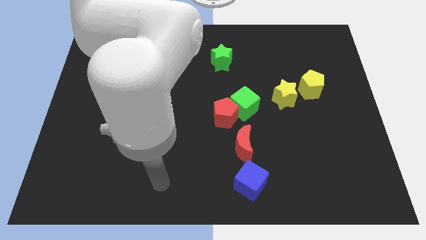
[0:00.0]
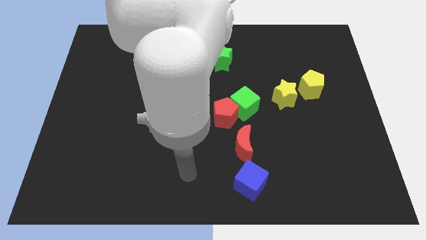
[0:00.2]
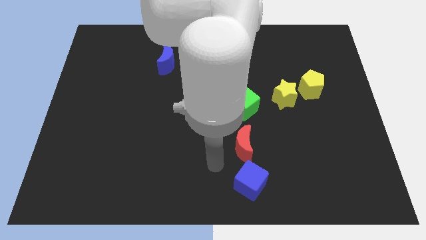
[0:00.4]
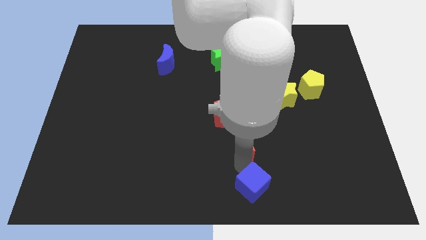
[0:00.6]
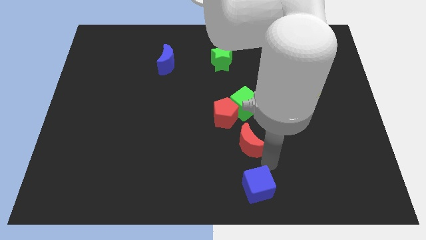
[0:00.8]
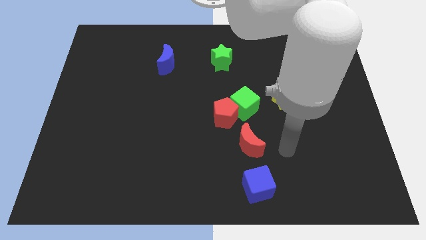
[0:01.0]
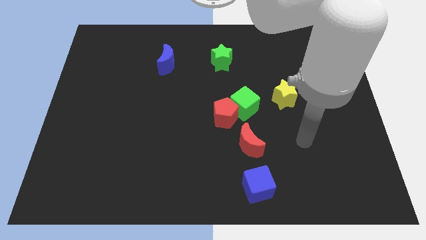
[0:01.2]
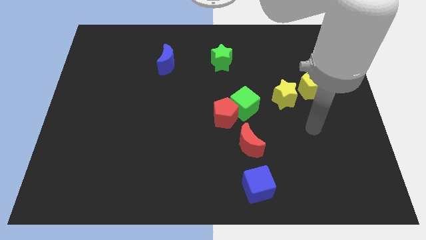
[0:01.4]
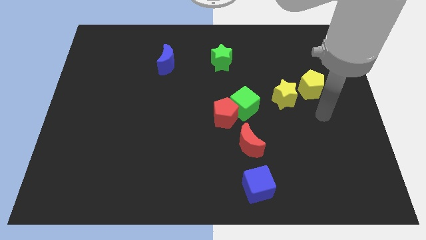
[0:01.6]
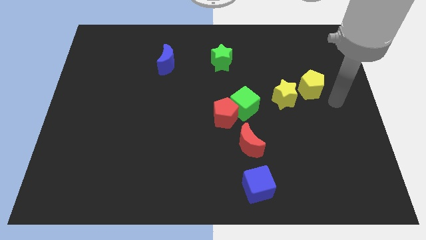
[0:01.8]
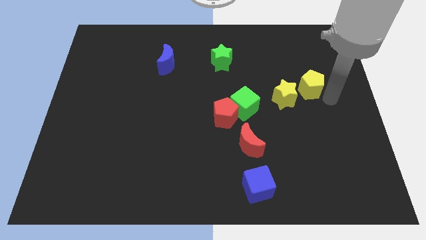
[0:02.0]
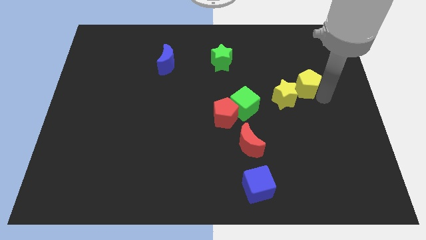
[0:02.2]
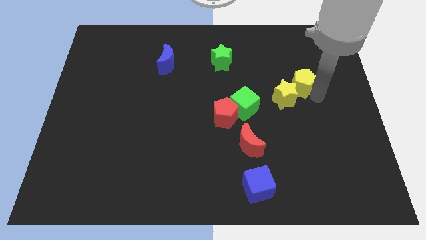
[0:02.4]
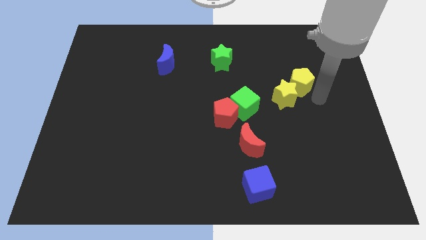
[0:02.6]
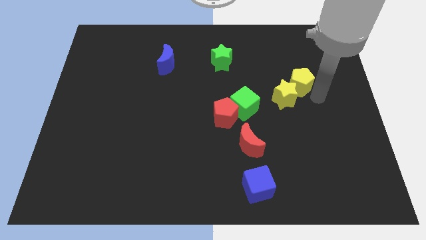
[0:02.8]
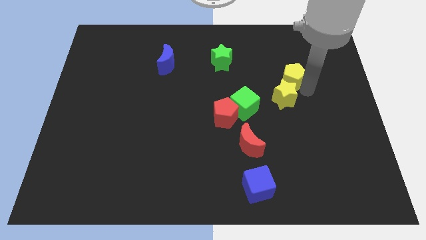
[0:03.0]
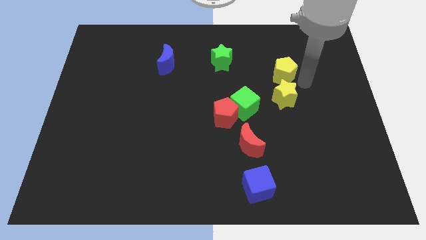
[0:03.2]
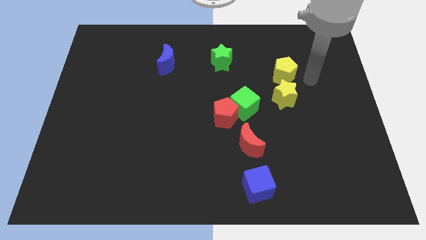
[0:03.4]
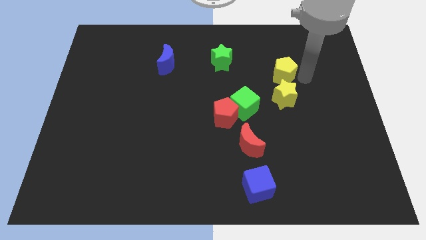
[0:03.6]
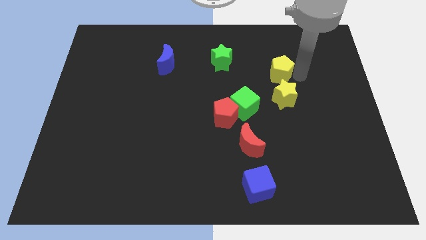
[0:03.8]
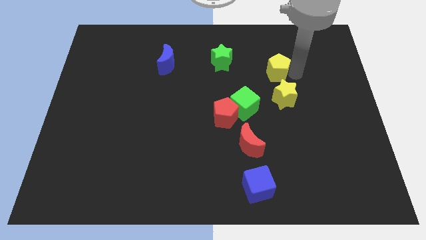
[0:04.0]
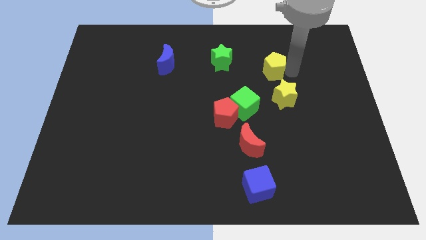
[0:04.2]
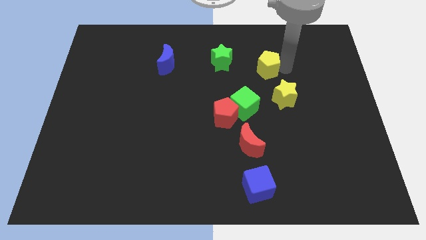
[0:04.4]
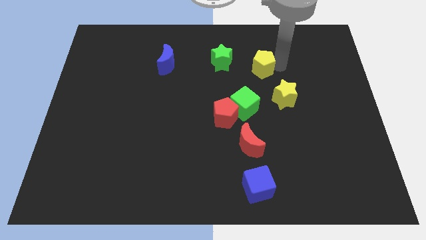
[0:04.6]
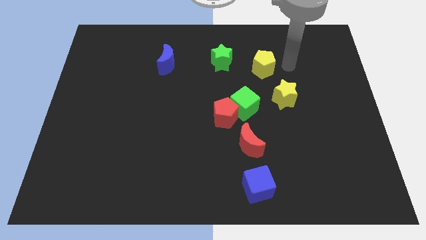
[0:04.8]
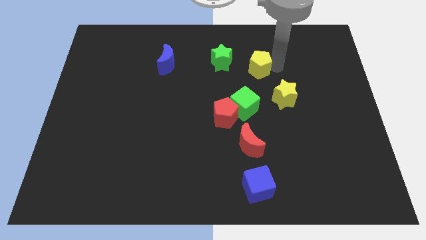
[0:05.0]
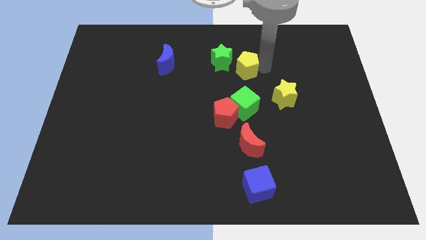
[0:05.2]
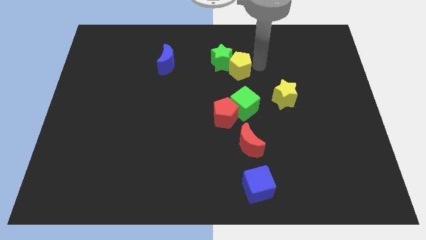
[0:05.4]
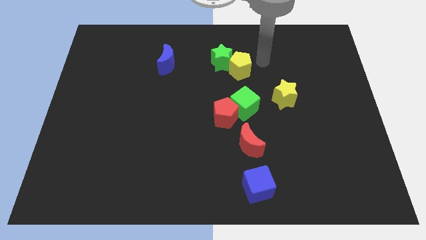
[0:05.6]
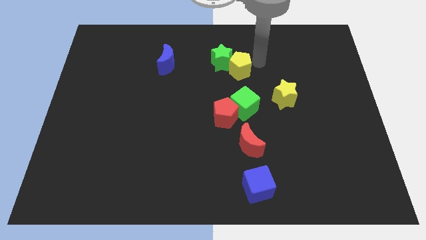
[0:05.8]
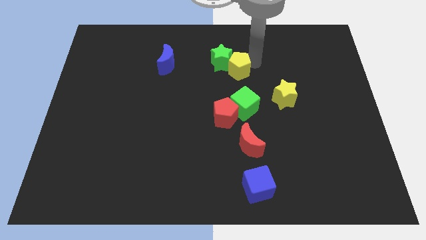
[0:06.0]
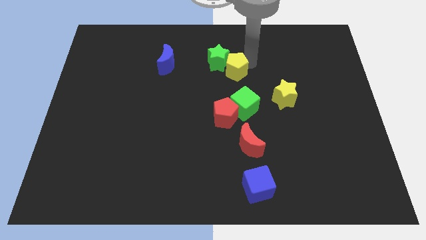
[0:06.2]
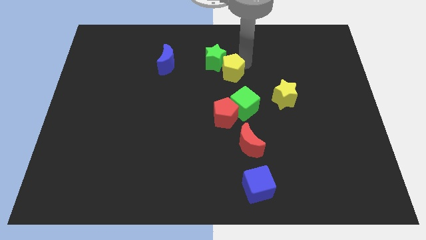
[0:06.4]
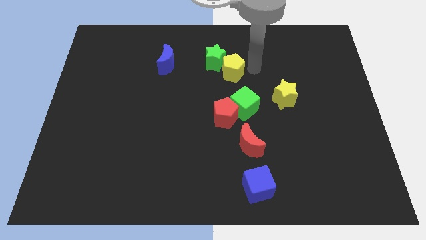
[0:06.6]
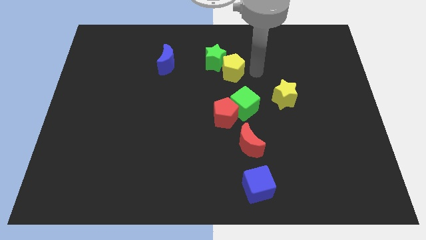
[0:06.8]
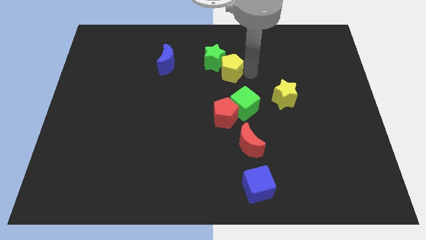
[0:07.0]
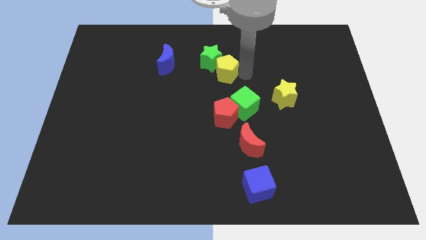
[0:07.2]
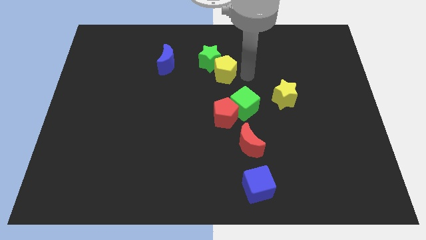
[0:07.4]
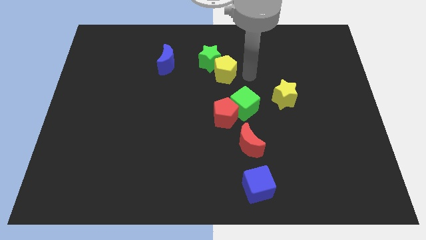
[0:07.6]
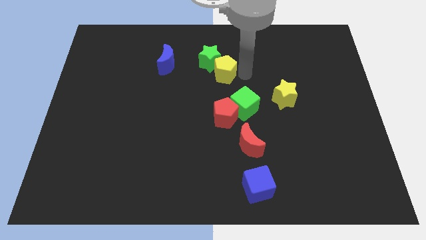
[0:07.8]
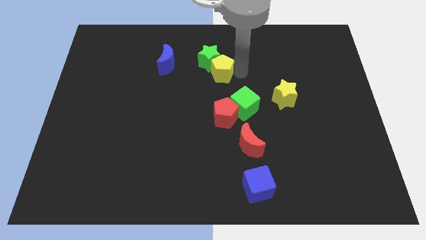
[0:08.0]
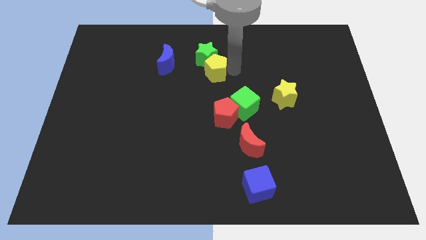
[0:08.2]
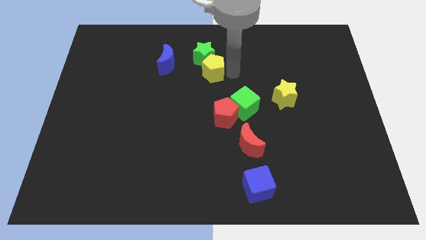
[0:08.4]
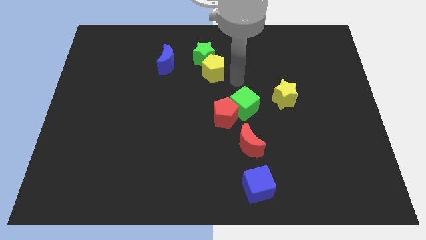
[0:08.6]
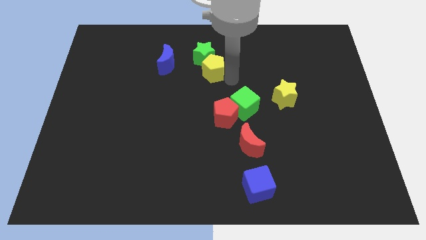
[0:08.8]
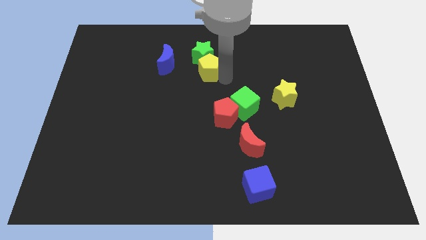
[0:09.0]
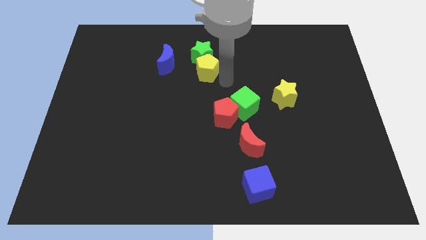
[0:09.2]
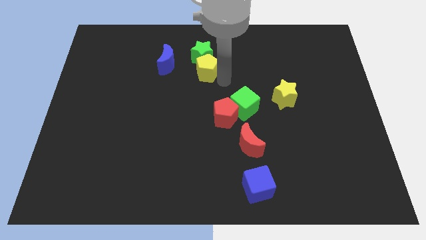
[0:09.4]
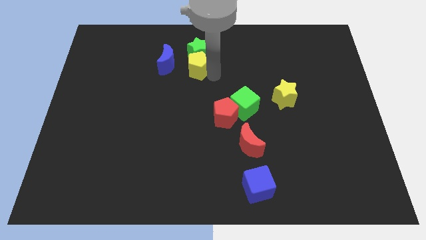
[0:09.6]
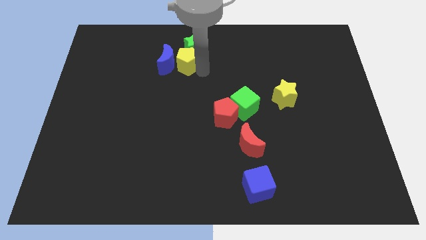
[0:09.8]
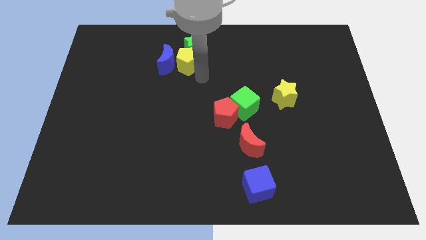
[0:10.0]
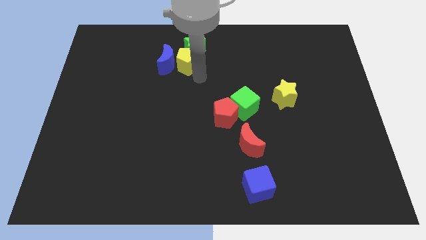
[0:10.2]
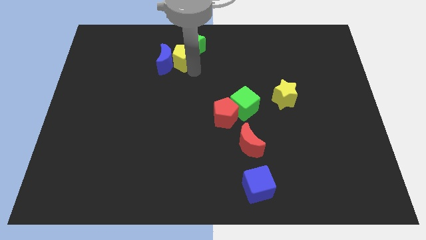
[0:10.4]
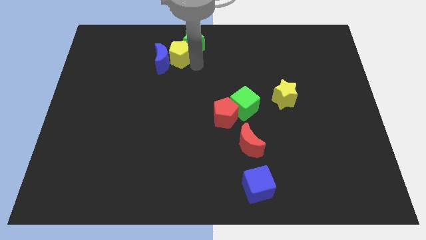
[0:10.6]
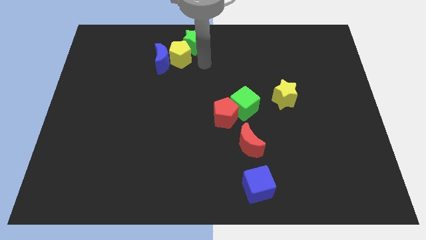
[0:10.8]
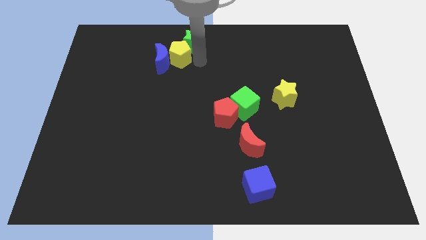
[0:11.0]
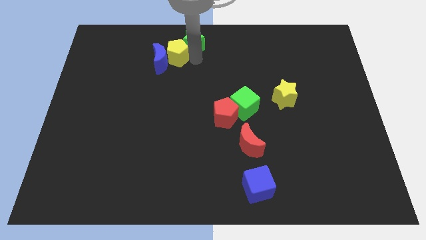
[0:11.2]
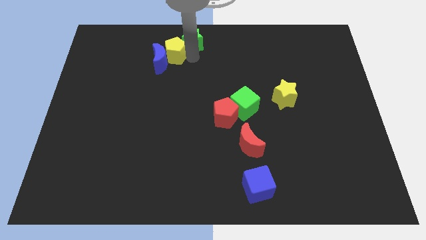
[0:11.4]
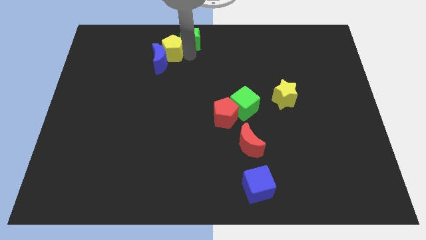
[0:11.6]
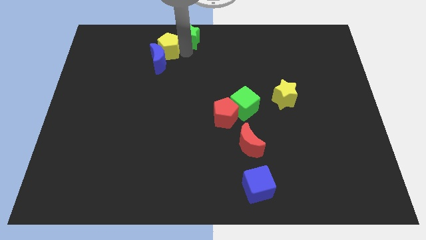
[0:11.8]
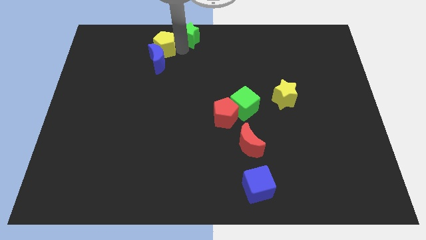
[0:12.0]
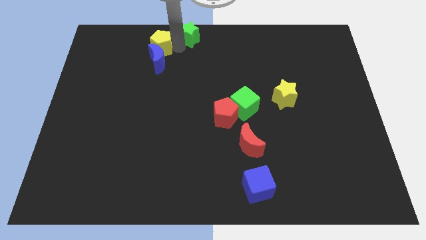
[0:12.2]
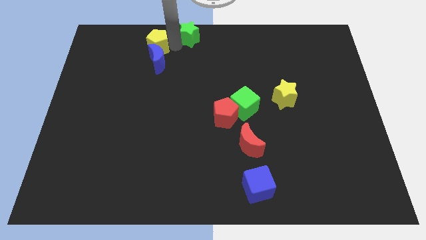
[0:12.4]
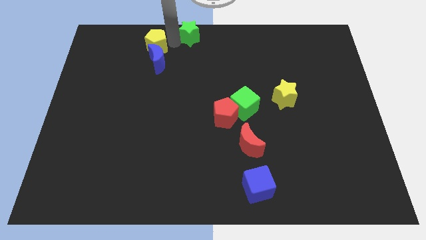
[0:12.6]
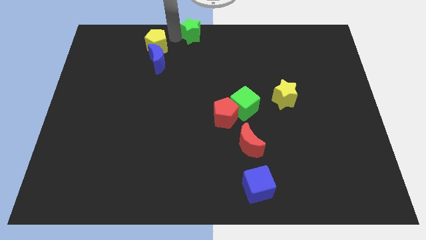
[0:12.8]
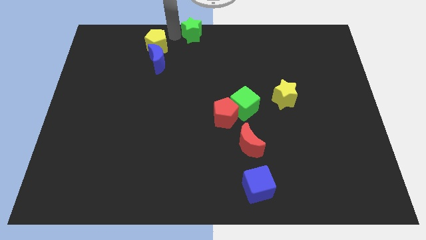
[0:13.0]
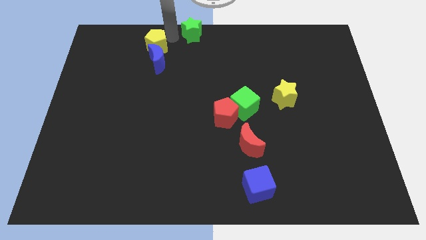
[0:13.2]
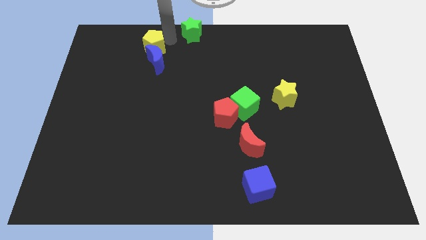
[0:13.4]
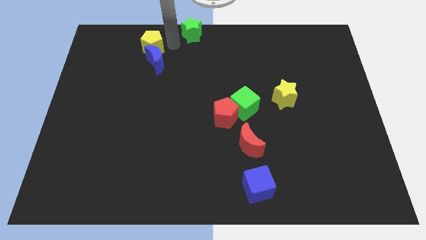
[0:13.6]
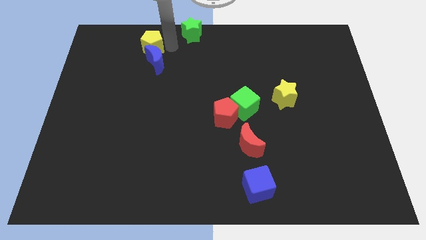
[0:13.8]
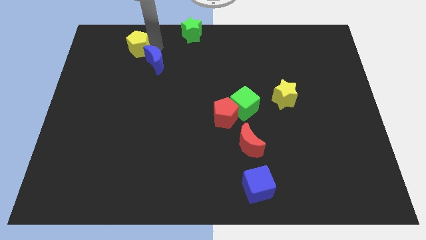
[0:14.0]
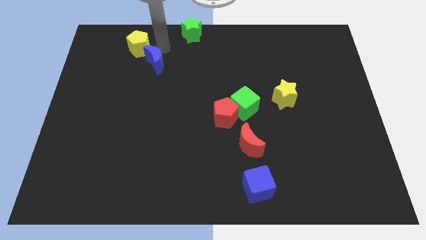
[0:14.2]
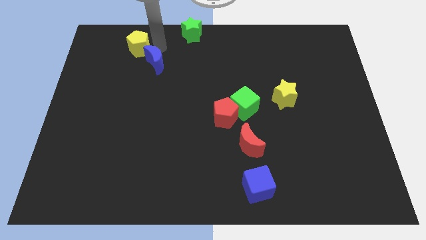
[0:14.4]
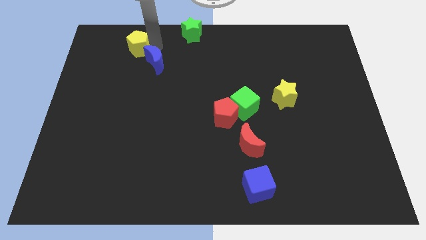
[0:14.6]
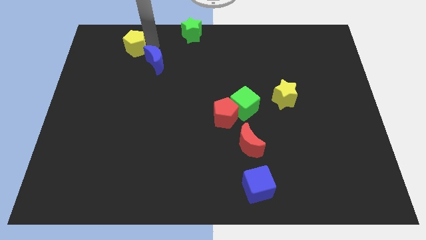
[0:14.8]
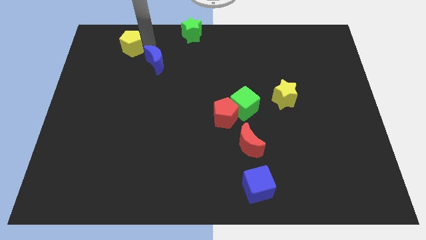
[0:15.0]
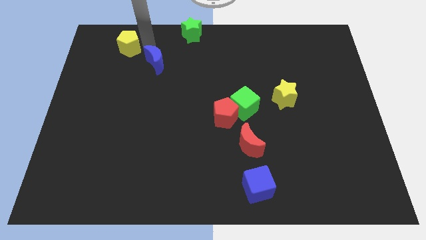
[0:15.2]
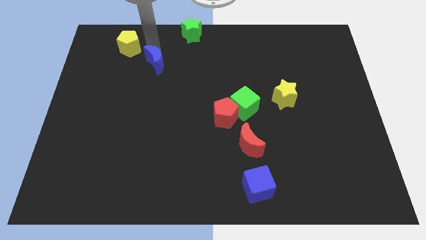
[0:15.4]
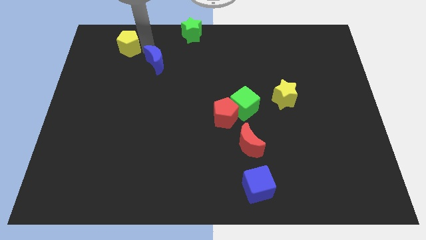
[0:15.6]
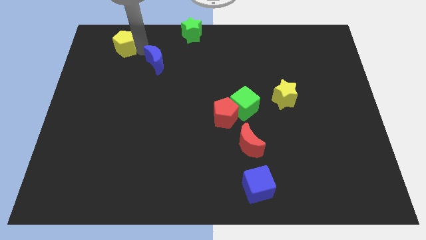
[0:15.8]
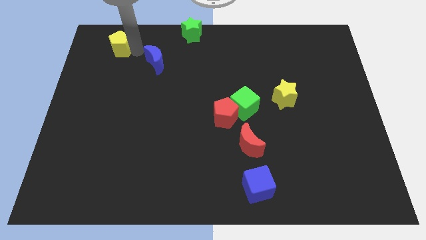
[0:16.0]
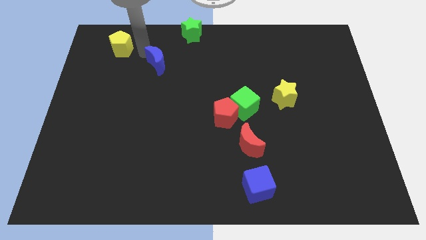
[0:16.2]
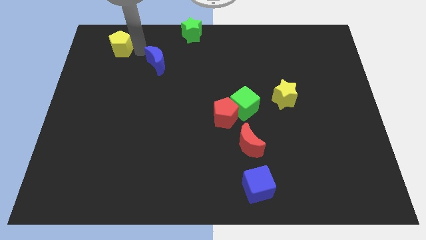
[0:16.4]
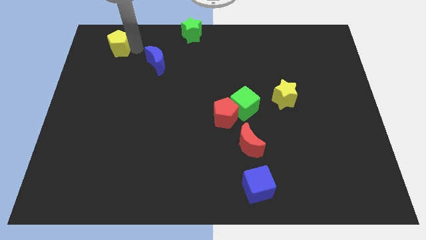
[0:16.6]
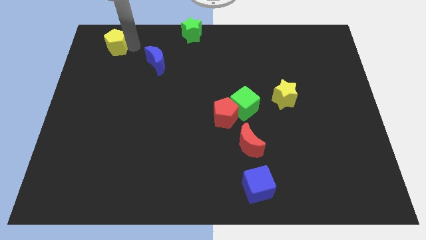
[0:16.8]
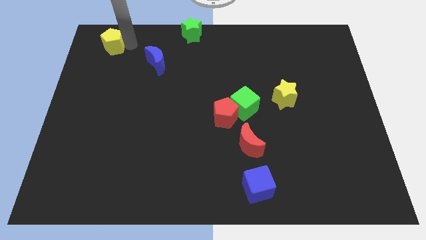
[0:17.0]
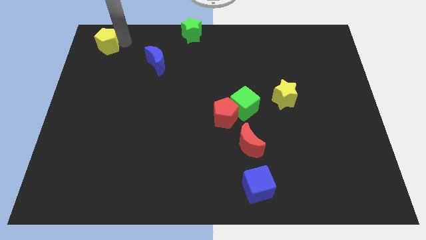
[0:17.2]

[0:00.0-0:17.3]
slide the yellow pentagon to the top left
